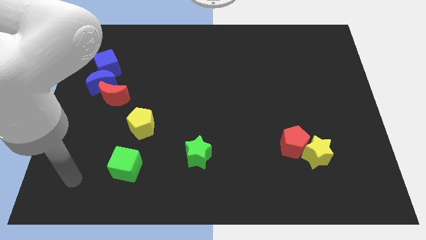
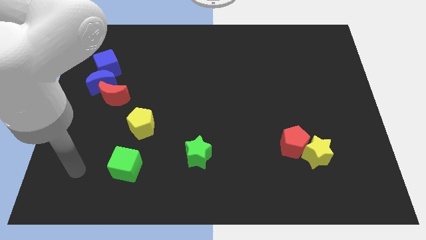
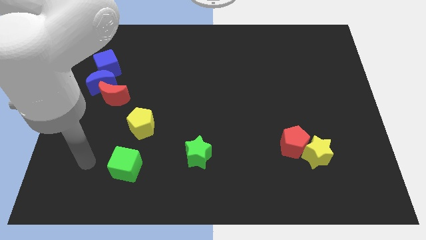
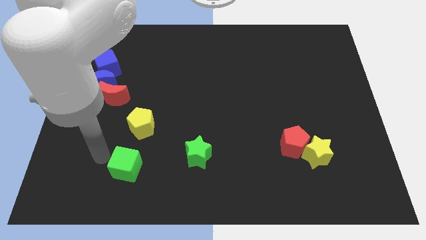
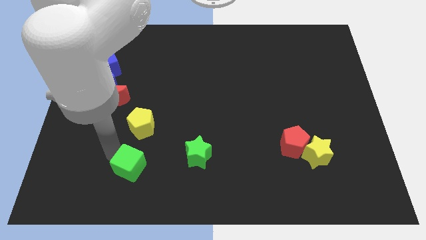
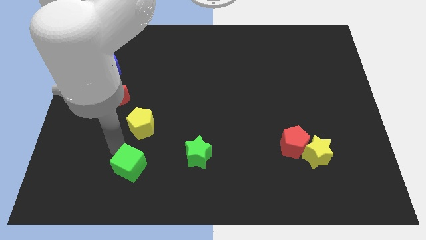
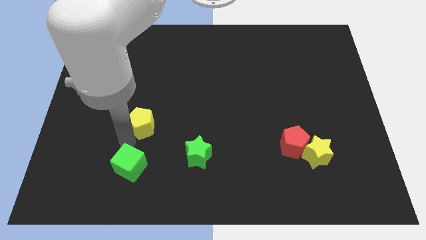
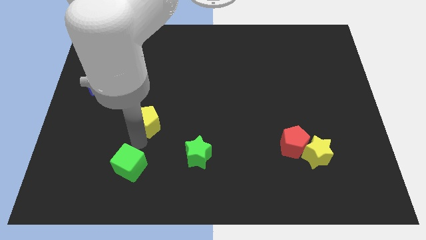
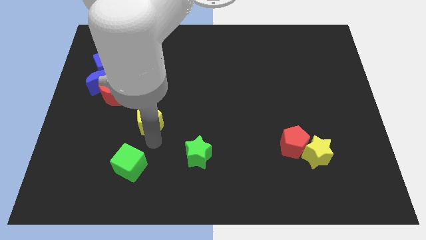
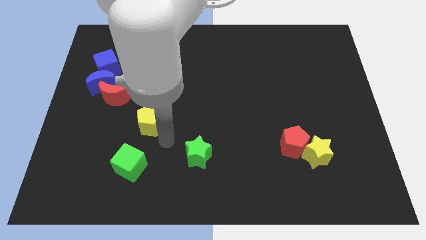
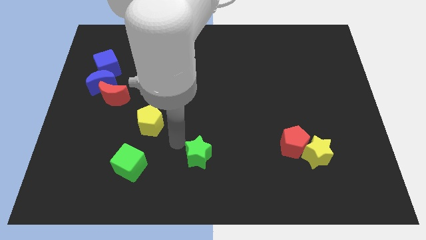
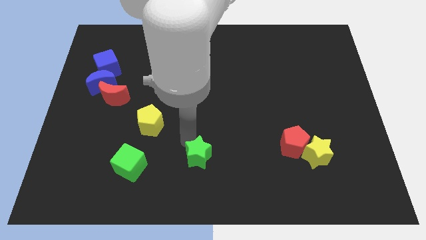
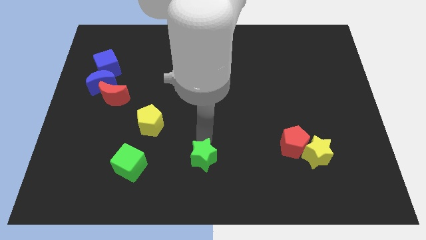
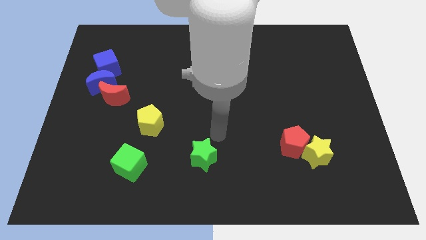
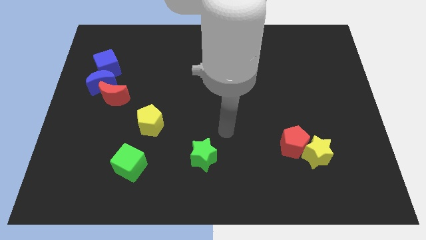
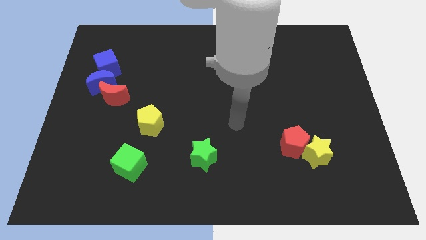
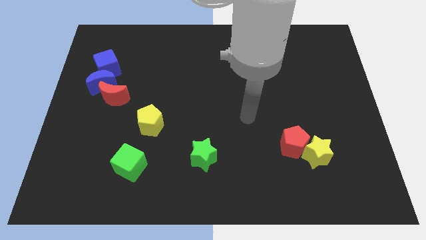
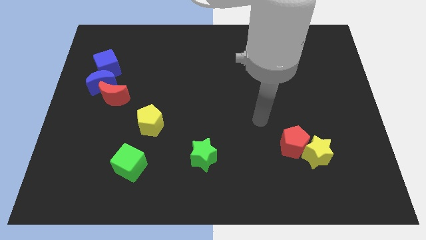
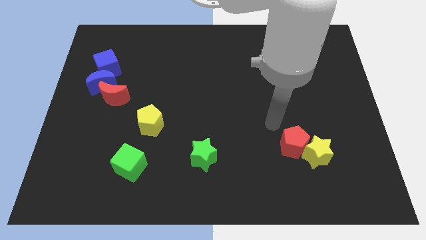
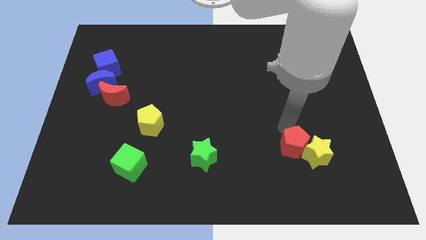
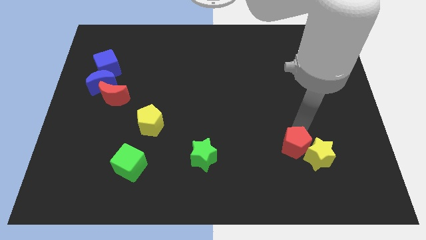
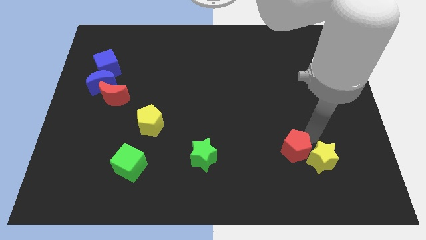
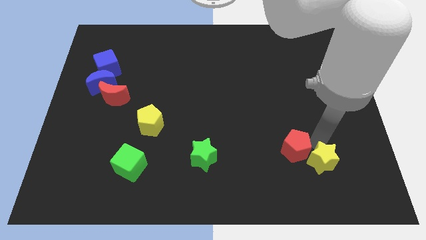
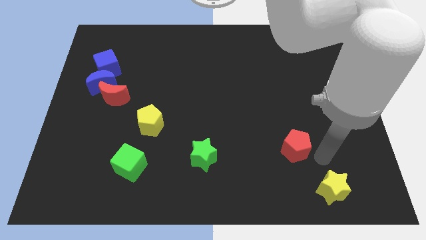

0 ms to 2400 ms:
separate the red pentagon from the yellow star

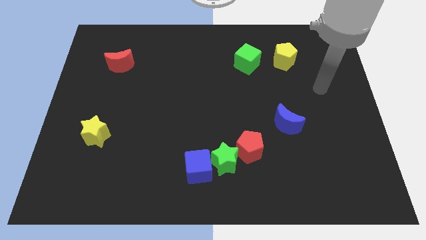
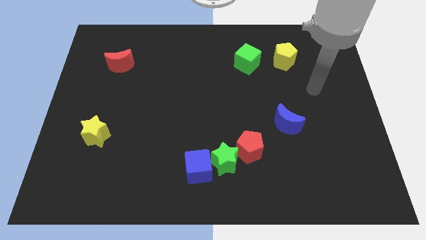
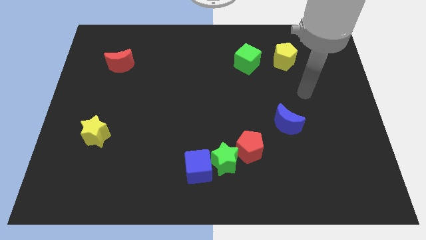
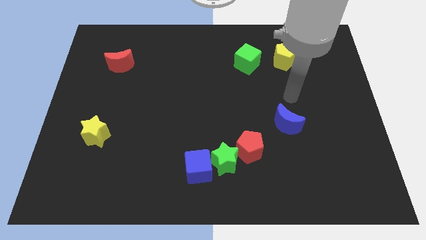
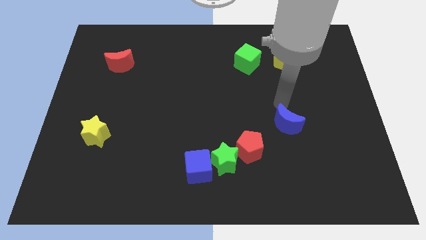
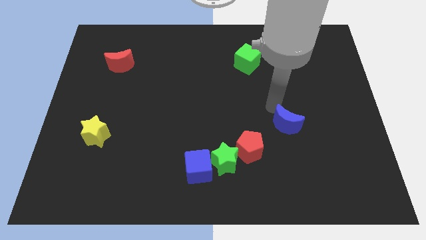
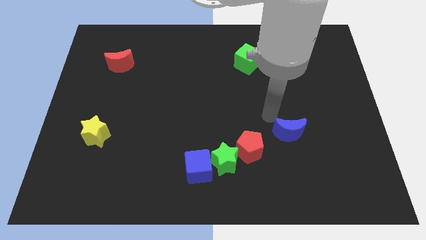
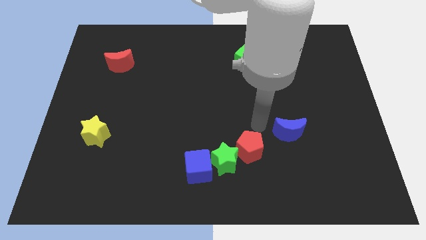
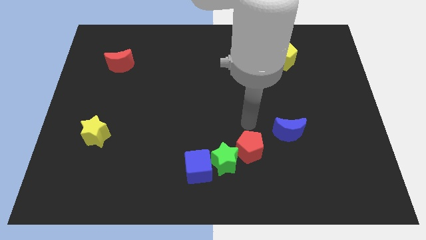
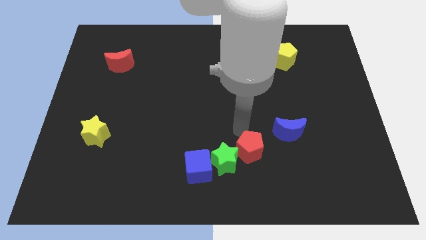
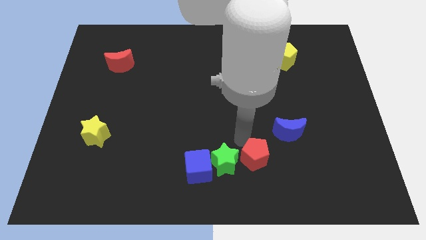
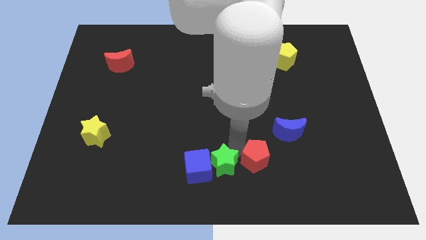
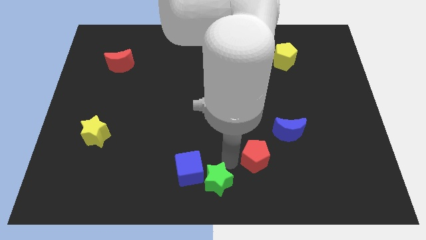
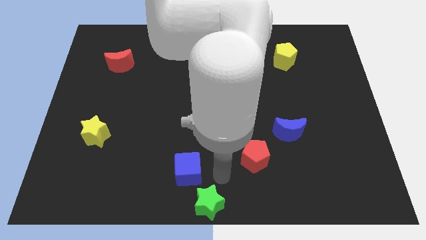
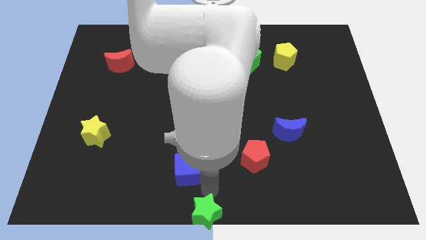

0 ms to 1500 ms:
separate the blue cube from the green star

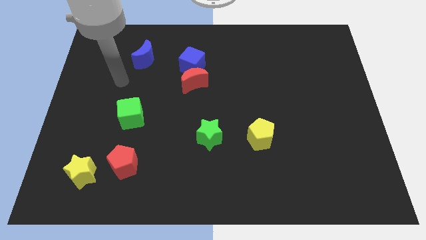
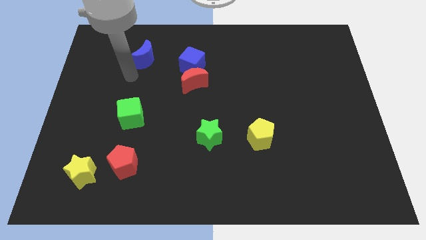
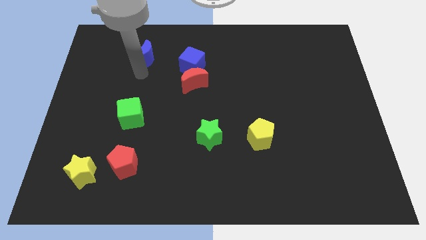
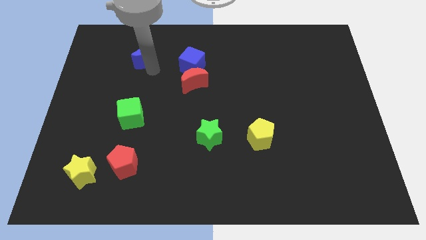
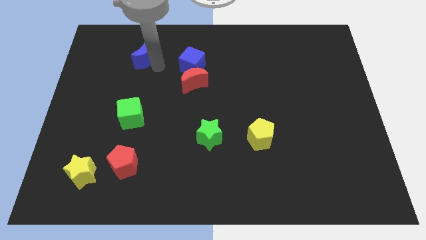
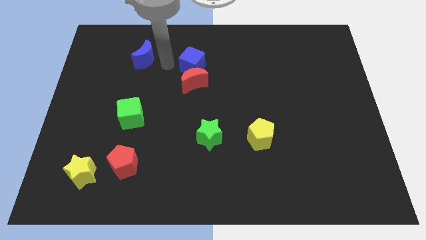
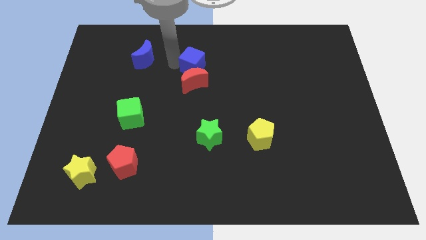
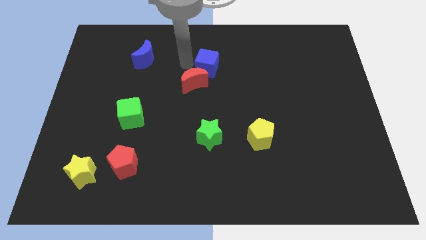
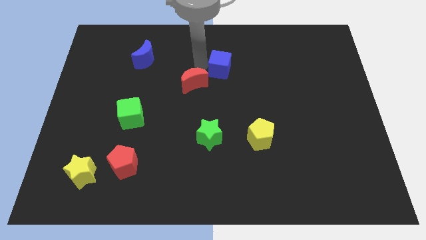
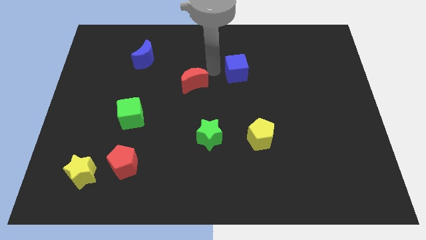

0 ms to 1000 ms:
pull the red moon apart from the blue cube

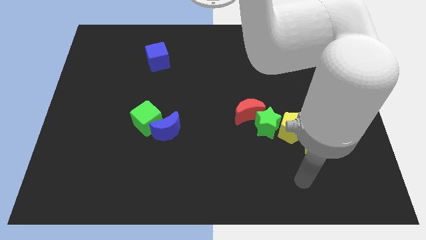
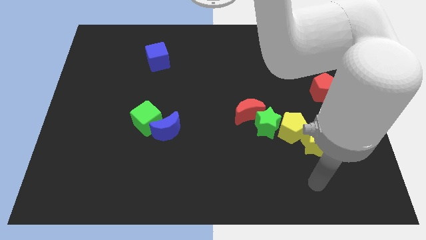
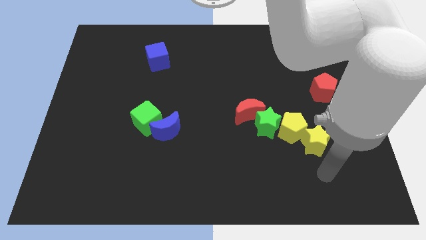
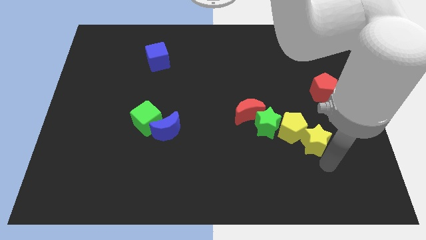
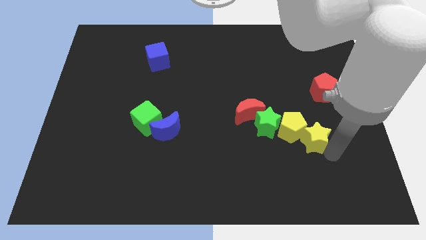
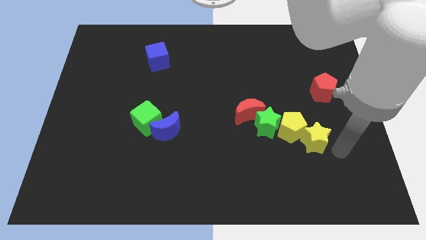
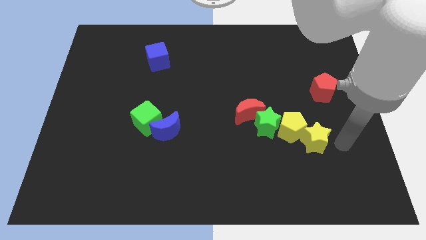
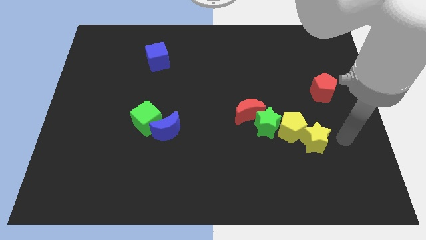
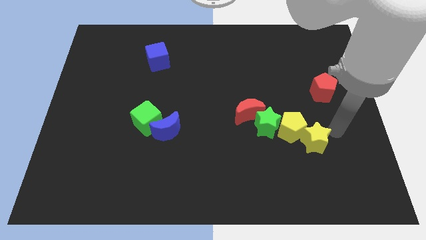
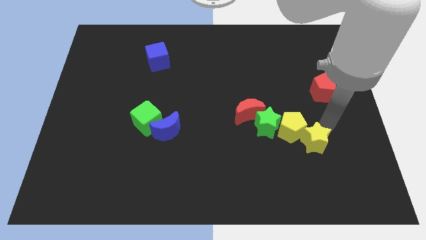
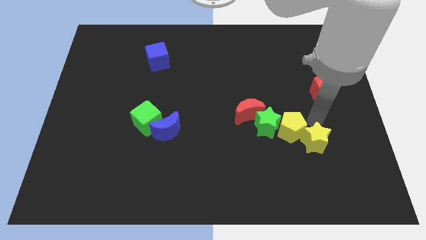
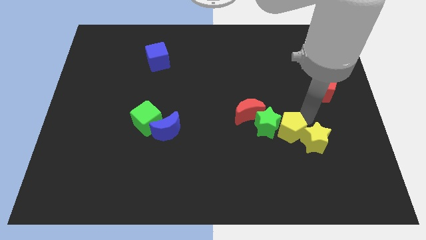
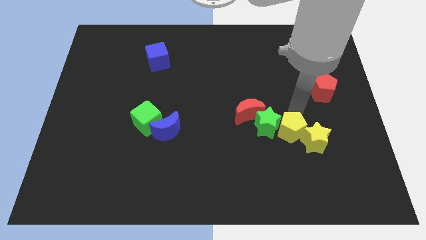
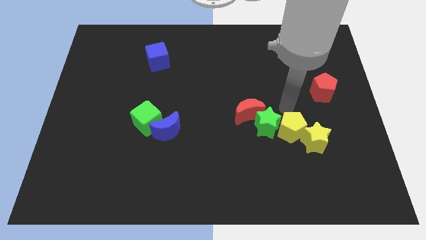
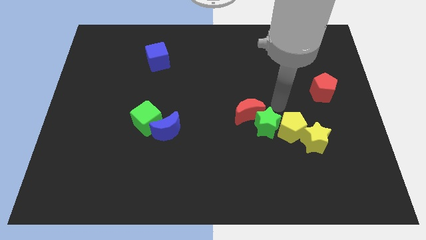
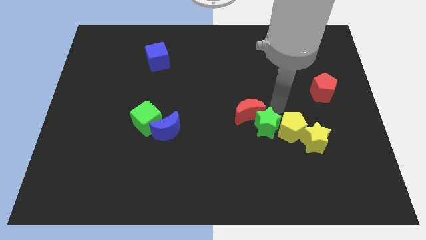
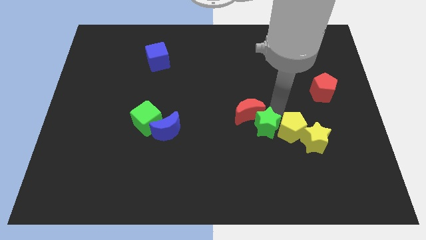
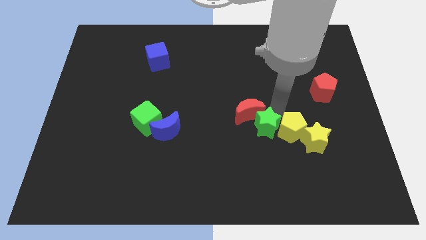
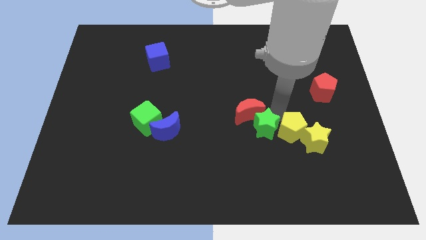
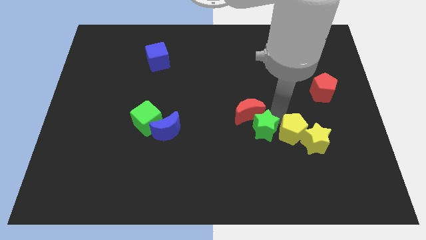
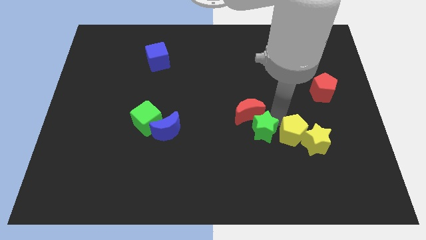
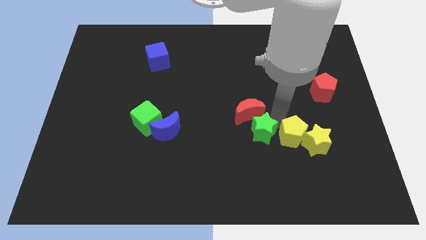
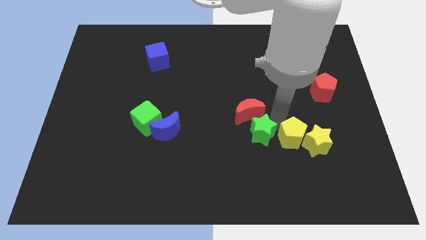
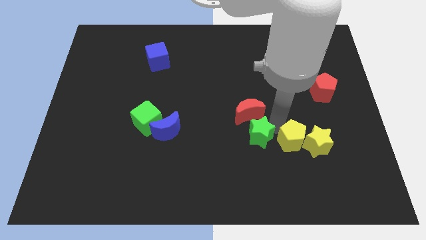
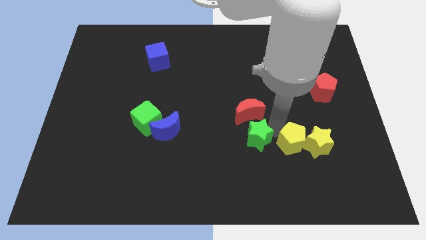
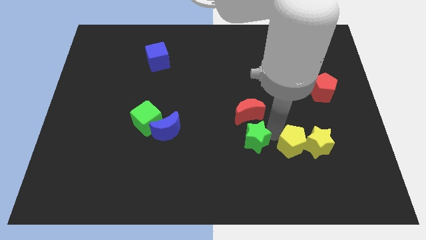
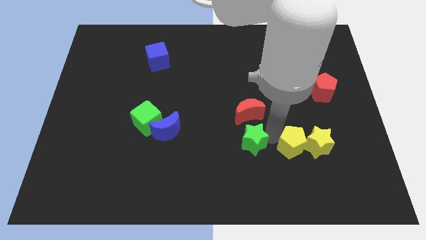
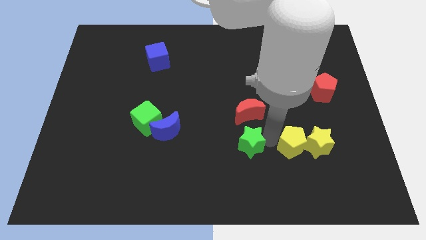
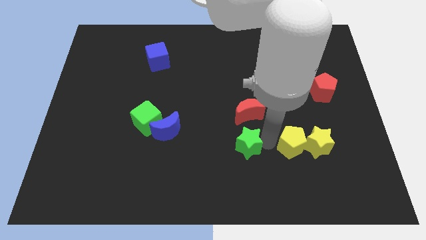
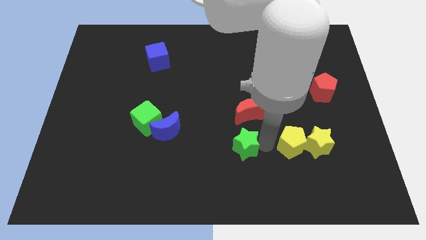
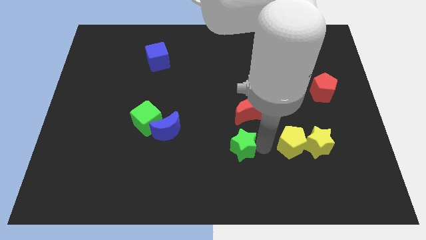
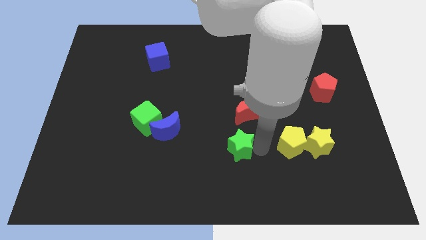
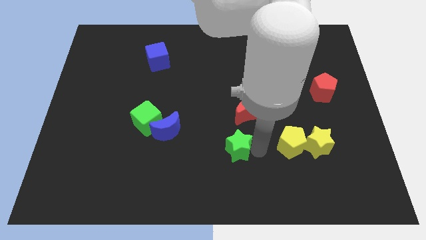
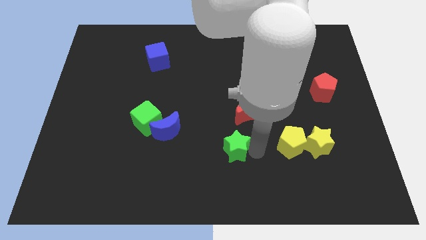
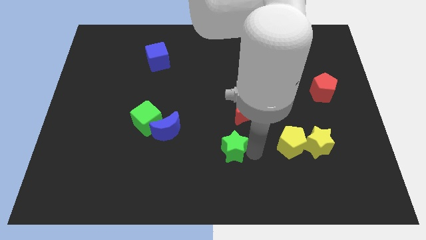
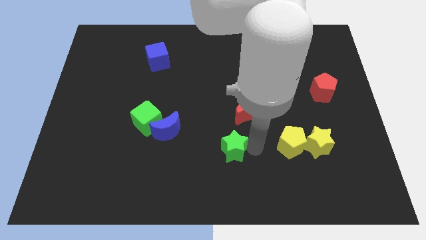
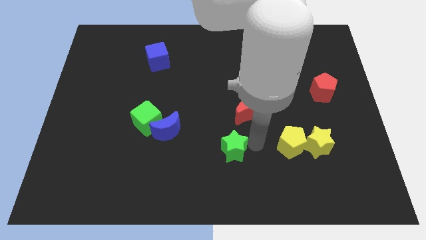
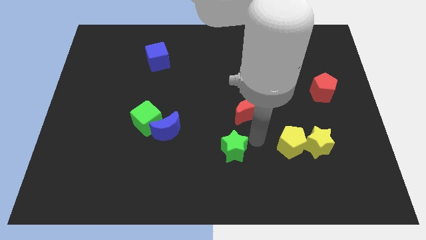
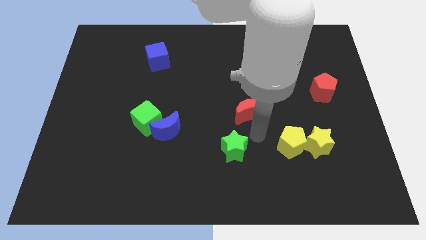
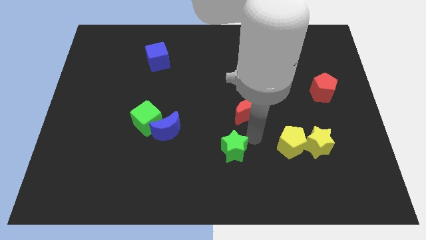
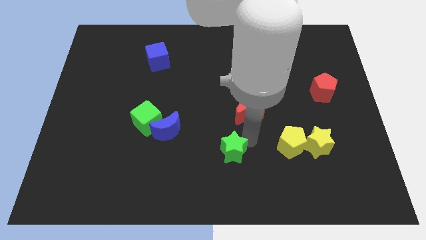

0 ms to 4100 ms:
move the green star away from the yellow pentagon and red moon

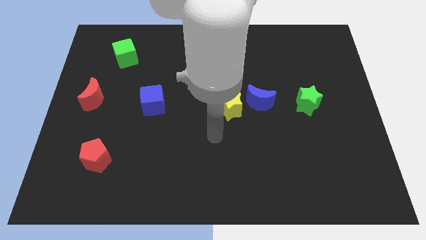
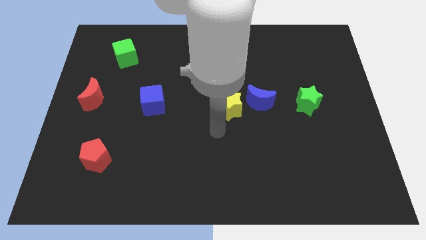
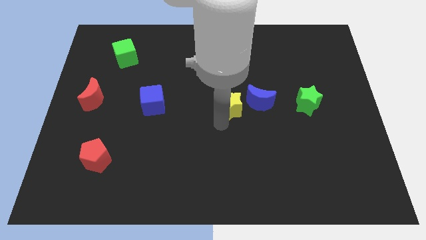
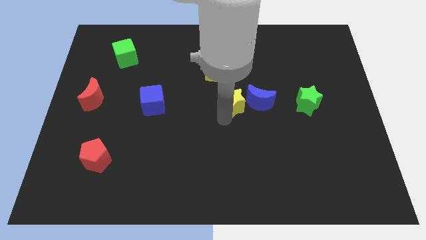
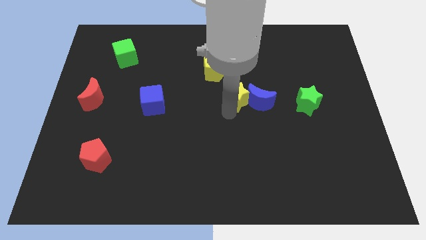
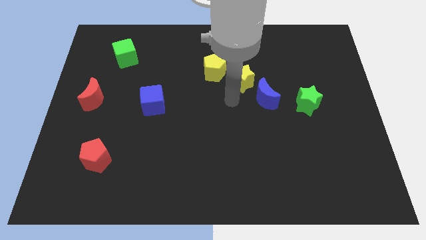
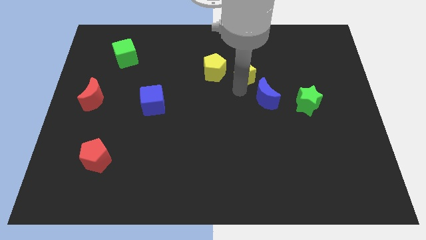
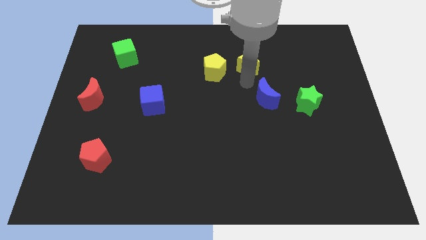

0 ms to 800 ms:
move the blue moon away from the yellow star
